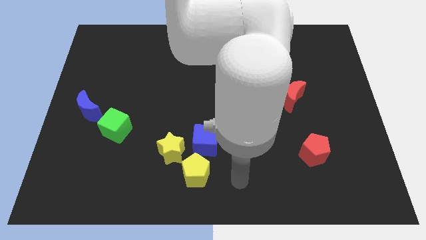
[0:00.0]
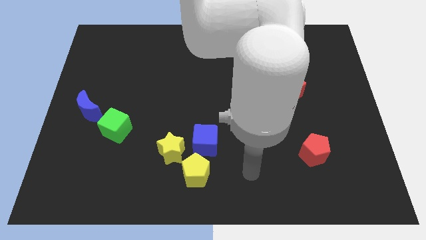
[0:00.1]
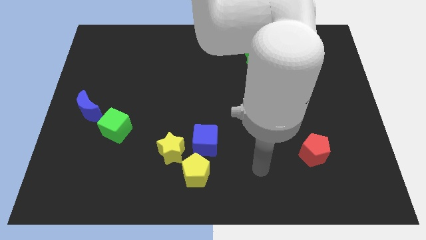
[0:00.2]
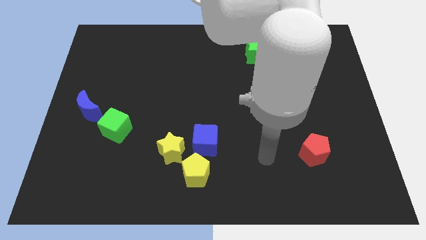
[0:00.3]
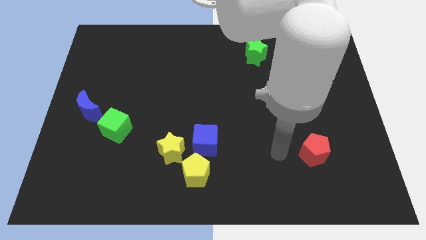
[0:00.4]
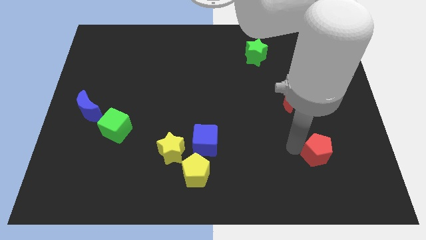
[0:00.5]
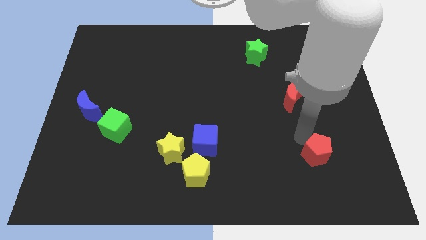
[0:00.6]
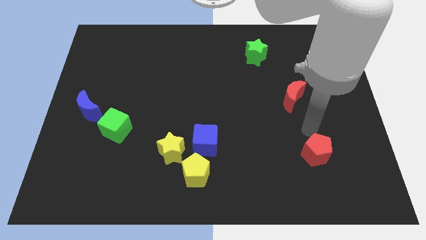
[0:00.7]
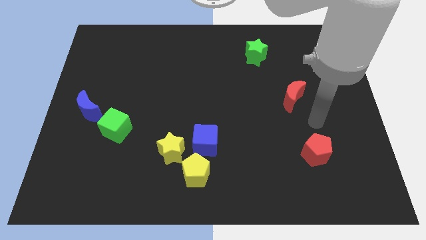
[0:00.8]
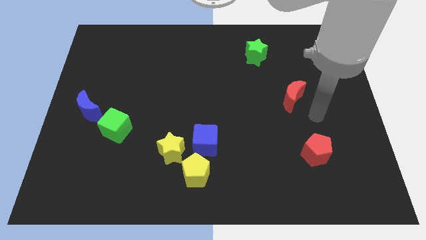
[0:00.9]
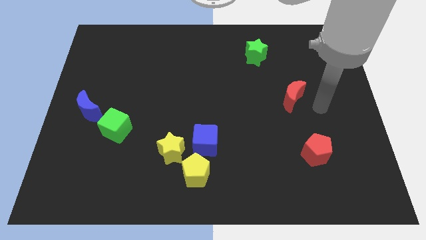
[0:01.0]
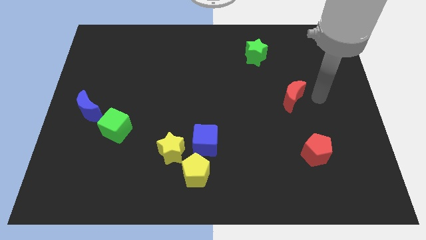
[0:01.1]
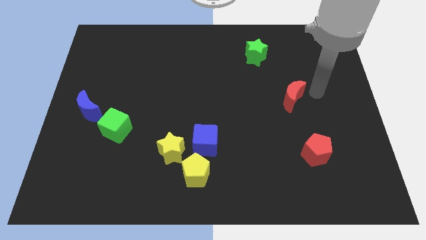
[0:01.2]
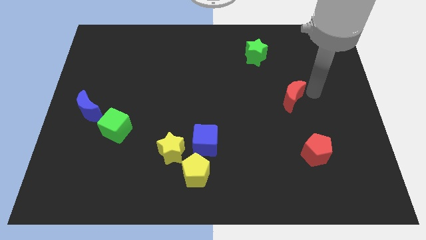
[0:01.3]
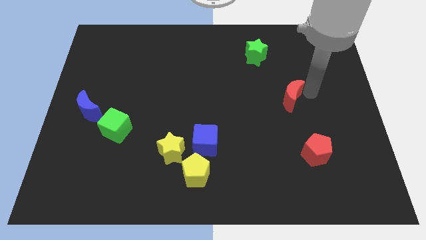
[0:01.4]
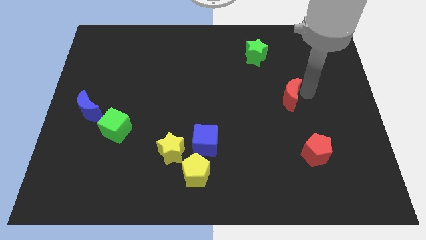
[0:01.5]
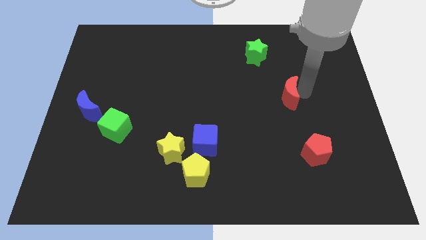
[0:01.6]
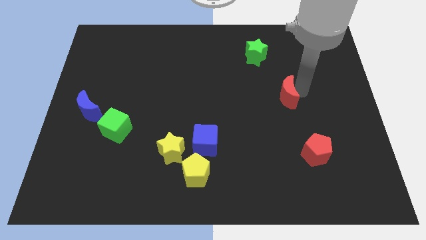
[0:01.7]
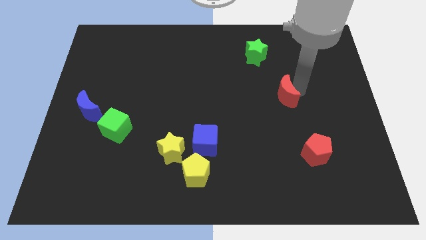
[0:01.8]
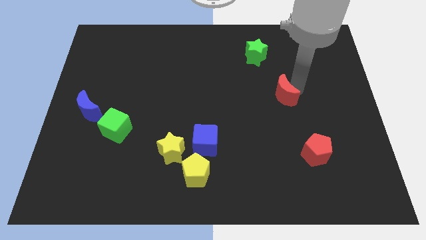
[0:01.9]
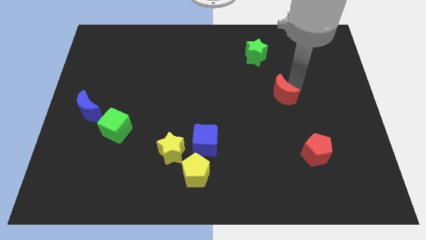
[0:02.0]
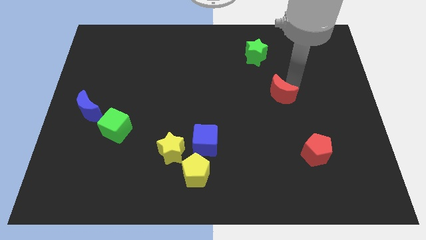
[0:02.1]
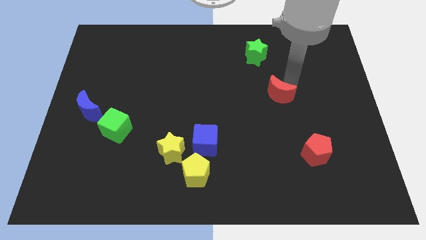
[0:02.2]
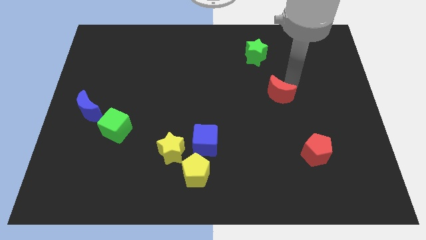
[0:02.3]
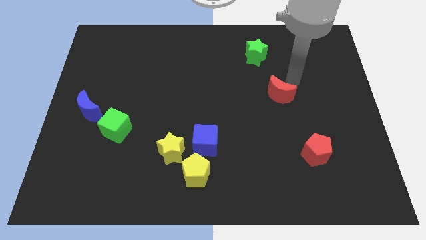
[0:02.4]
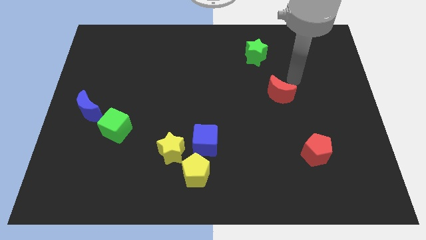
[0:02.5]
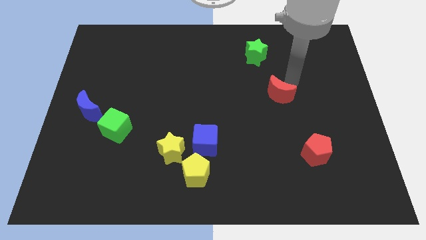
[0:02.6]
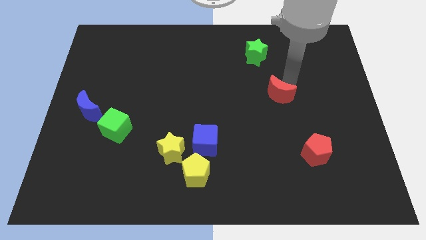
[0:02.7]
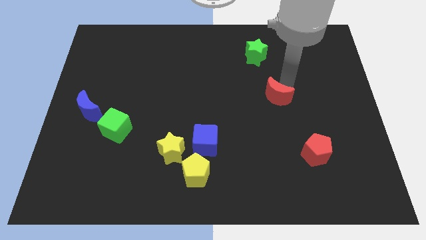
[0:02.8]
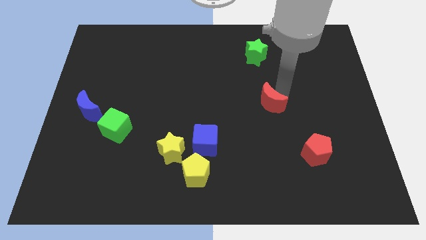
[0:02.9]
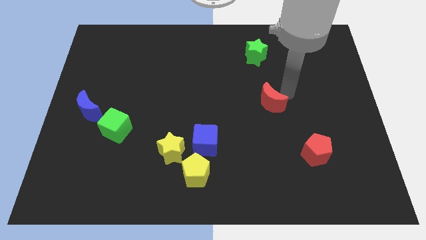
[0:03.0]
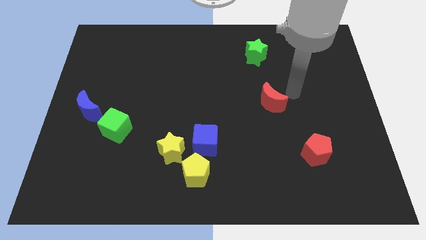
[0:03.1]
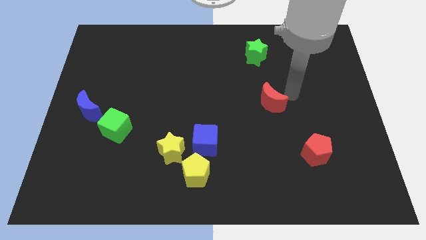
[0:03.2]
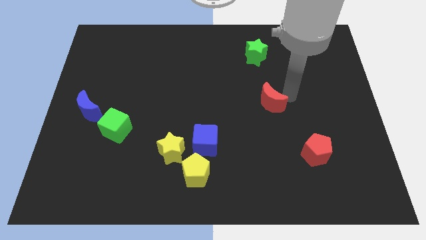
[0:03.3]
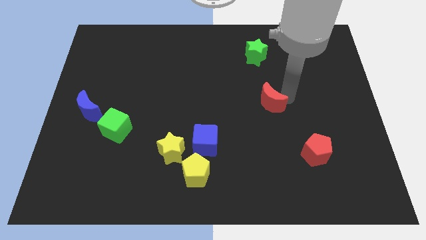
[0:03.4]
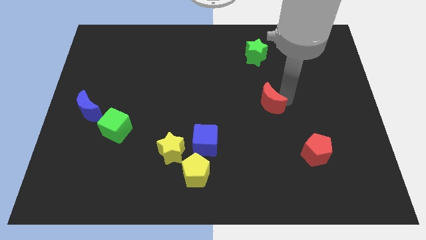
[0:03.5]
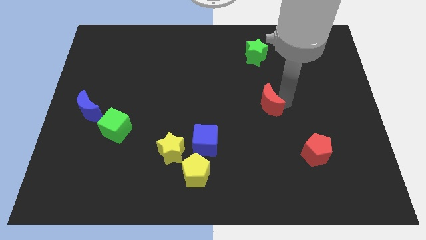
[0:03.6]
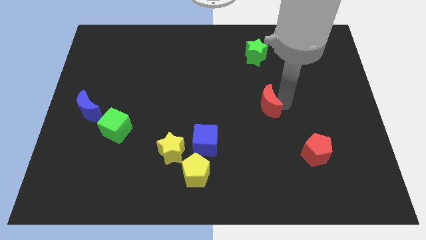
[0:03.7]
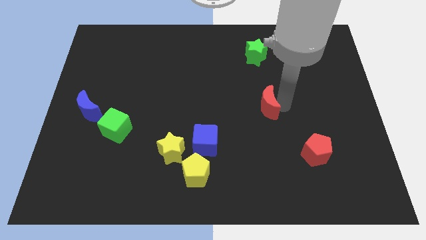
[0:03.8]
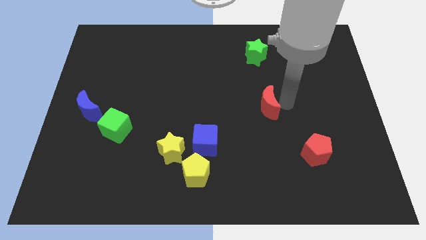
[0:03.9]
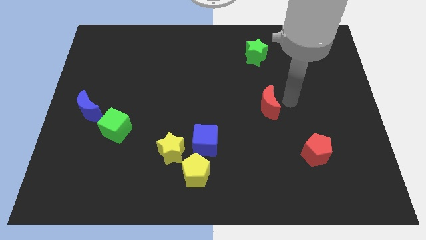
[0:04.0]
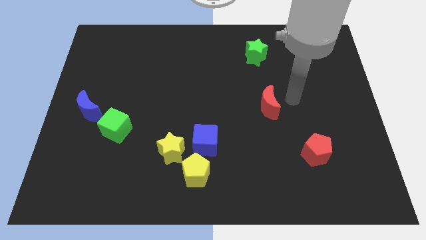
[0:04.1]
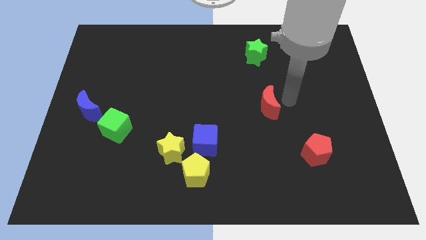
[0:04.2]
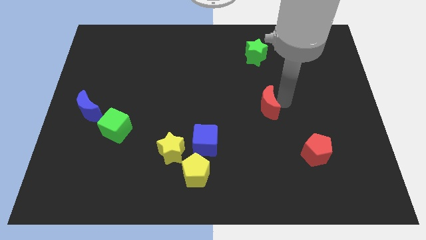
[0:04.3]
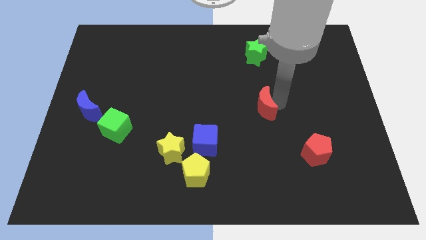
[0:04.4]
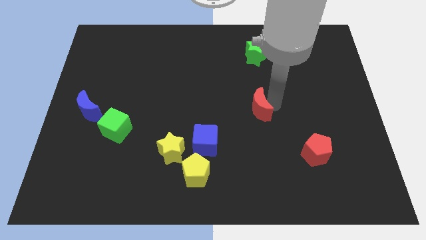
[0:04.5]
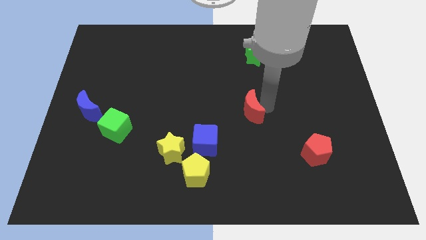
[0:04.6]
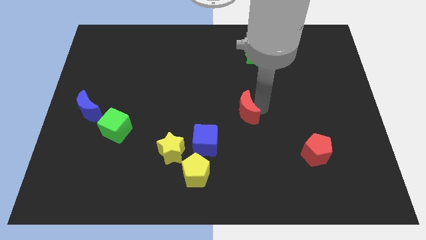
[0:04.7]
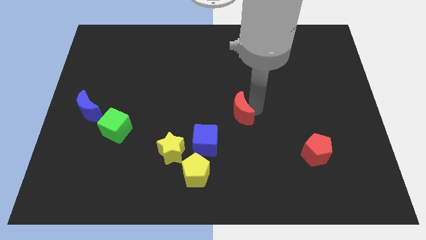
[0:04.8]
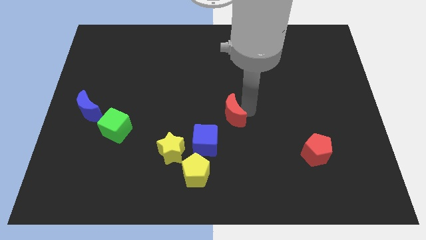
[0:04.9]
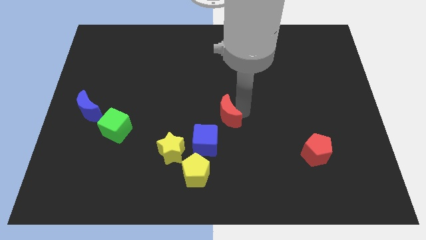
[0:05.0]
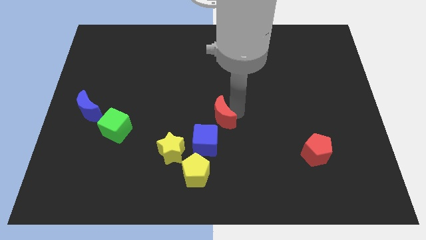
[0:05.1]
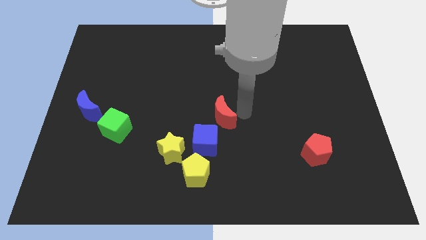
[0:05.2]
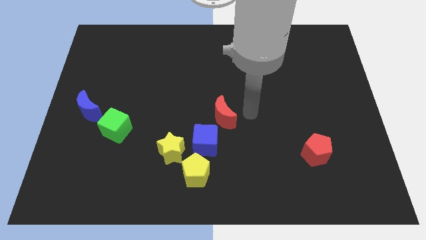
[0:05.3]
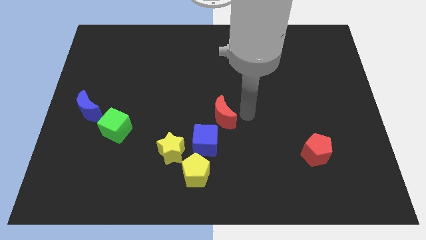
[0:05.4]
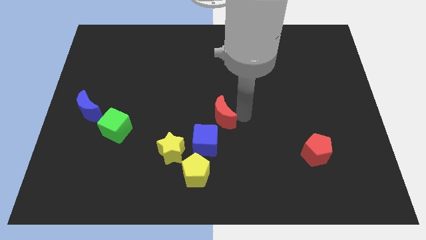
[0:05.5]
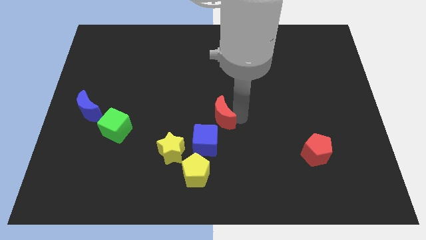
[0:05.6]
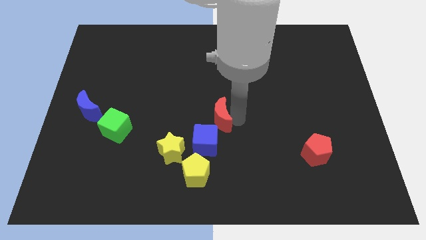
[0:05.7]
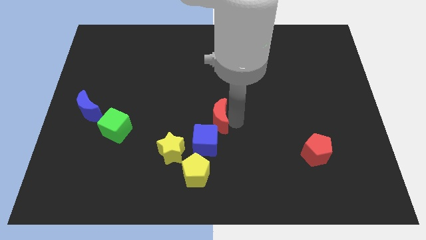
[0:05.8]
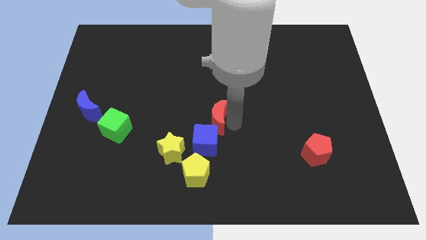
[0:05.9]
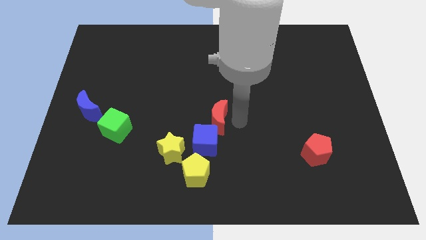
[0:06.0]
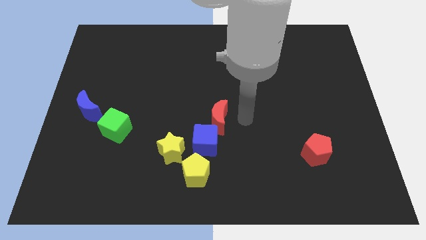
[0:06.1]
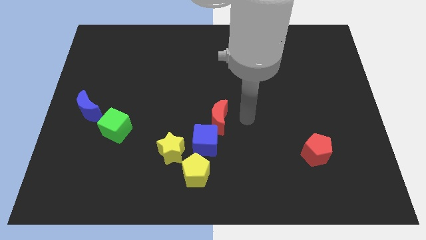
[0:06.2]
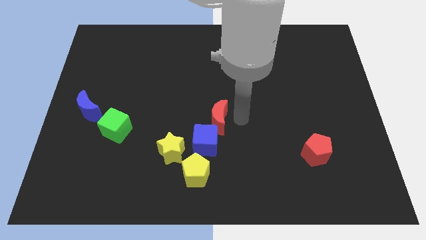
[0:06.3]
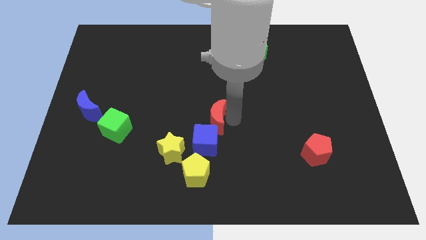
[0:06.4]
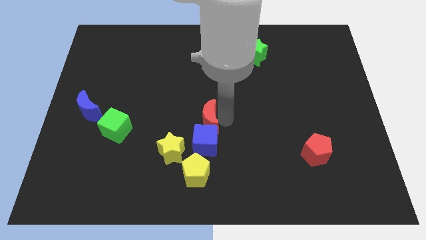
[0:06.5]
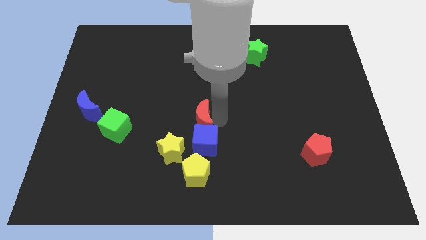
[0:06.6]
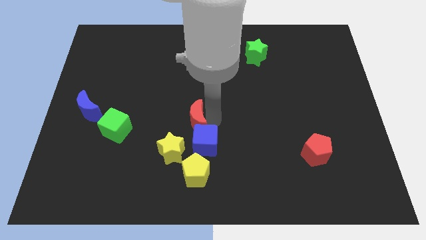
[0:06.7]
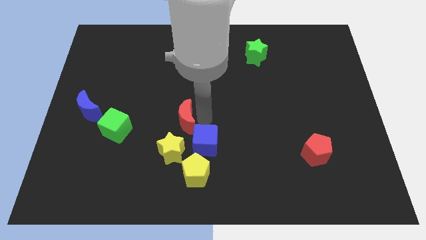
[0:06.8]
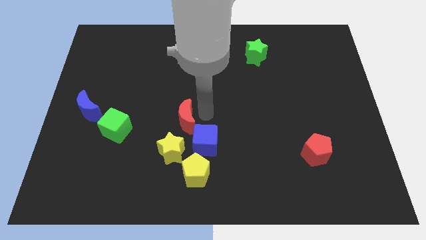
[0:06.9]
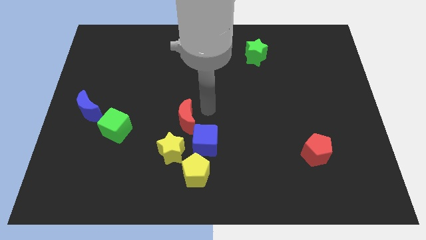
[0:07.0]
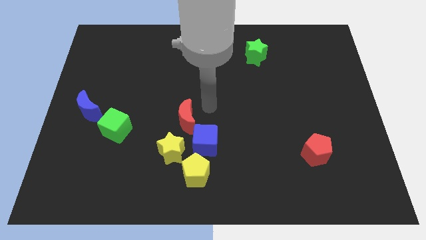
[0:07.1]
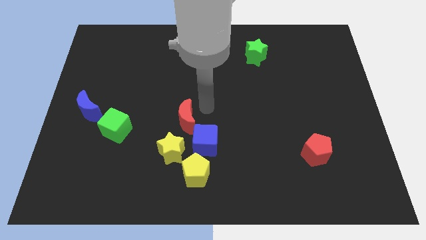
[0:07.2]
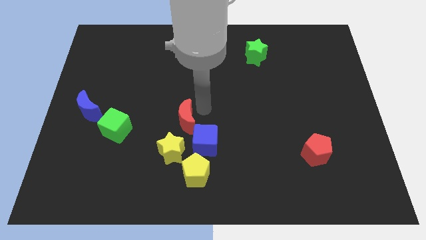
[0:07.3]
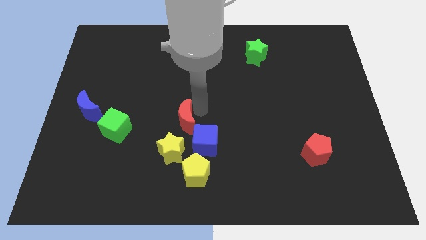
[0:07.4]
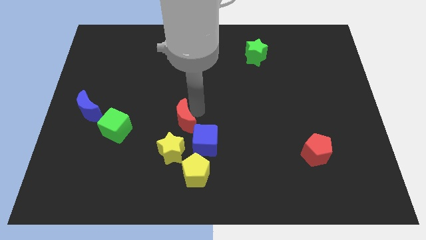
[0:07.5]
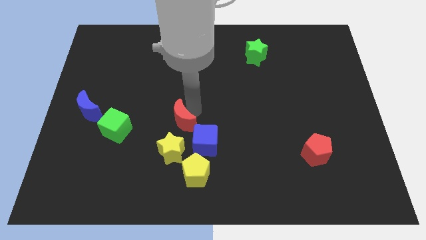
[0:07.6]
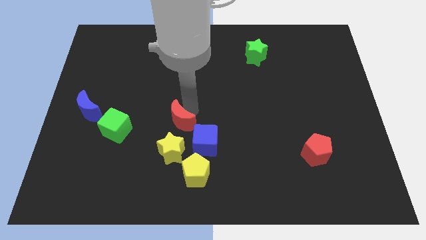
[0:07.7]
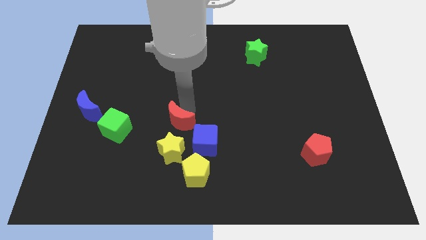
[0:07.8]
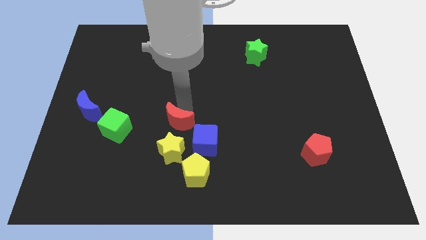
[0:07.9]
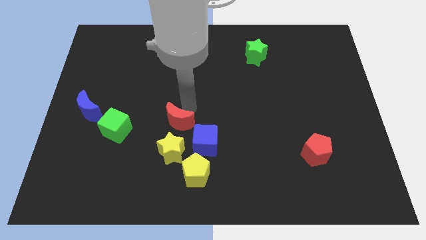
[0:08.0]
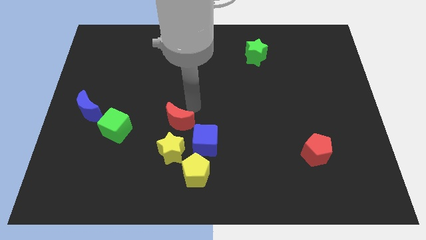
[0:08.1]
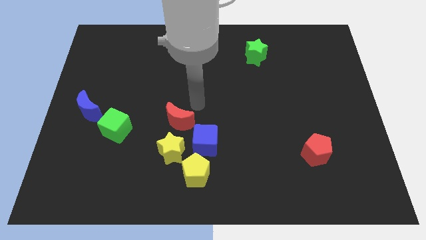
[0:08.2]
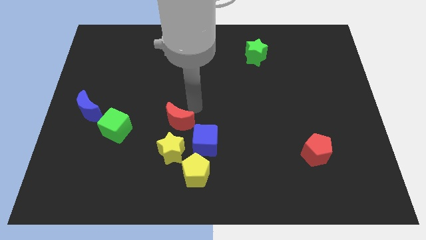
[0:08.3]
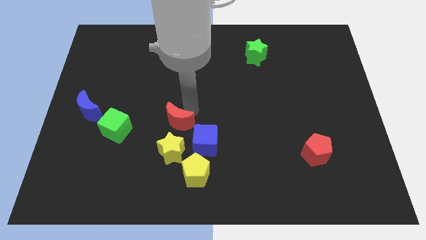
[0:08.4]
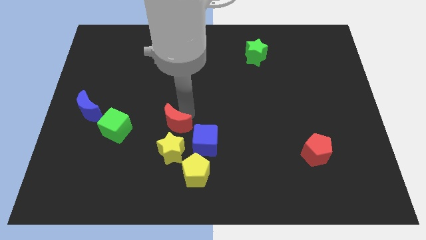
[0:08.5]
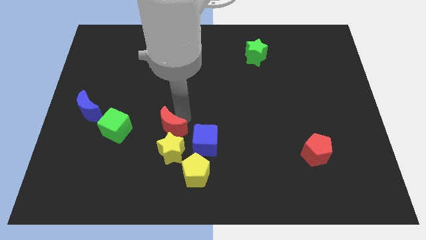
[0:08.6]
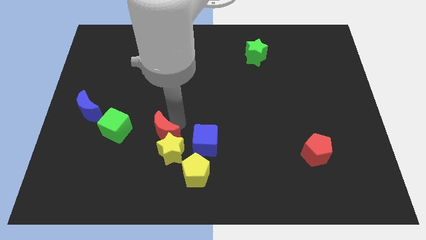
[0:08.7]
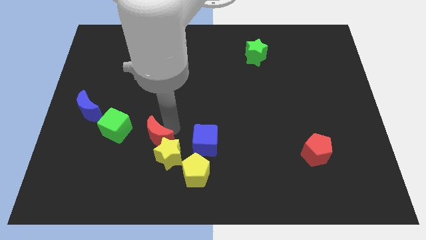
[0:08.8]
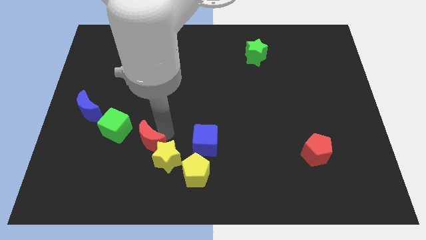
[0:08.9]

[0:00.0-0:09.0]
push the red moon to the bottom right of the green cube
